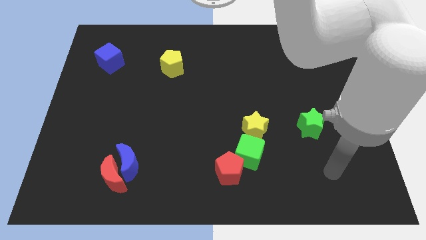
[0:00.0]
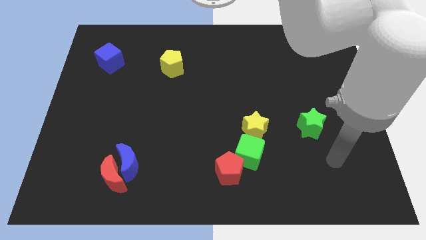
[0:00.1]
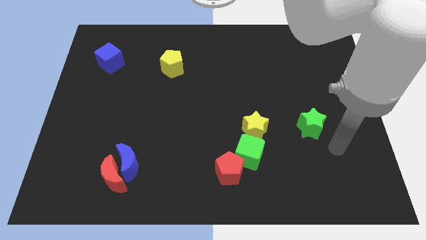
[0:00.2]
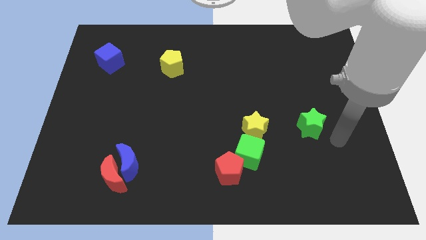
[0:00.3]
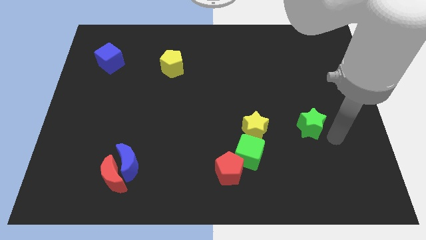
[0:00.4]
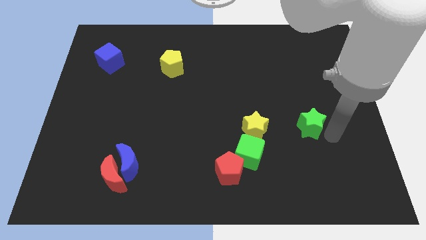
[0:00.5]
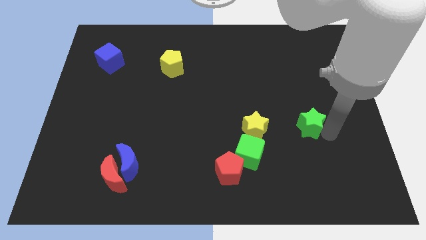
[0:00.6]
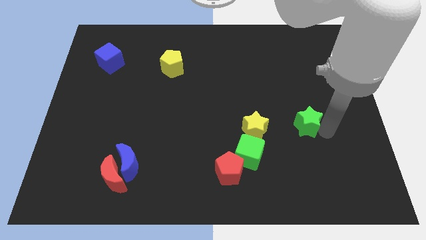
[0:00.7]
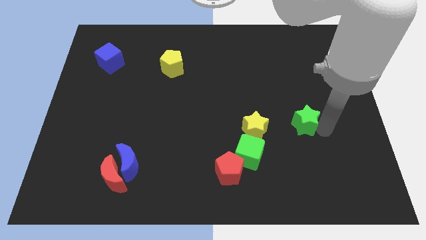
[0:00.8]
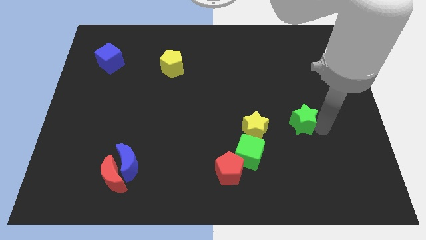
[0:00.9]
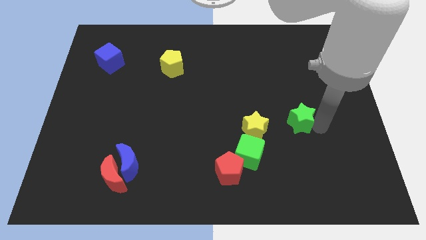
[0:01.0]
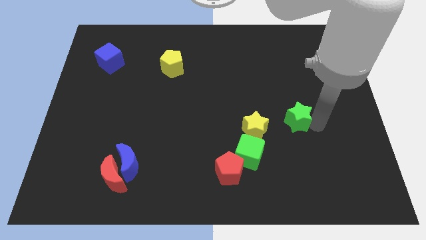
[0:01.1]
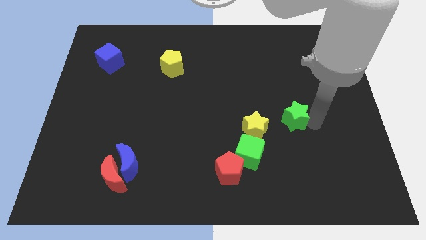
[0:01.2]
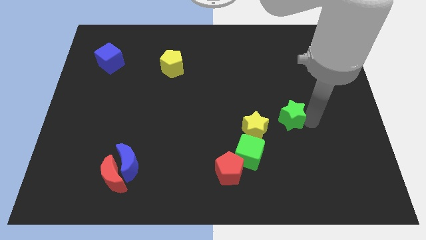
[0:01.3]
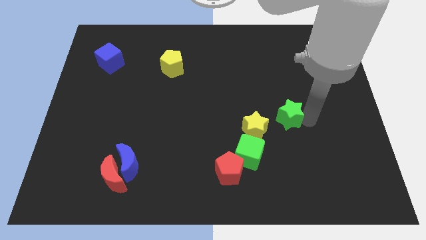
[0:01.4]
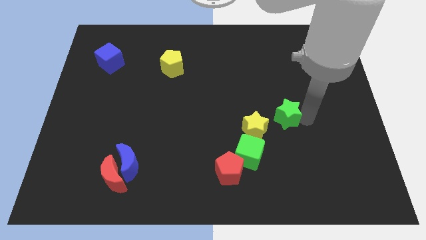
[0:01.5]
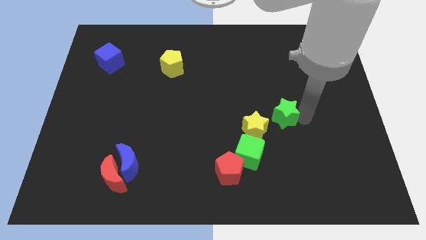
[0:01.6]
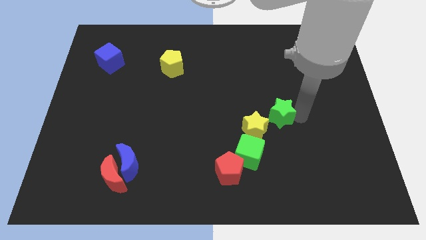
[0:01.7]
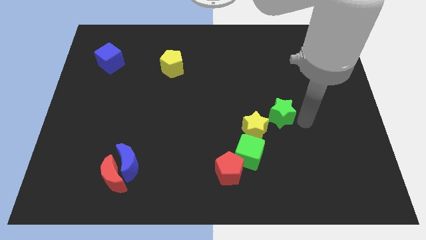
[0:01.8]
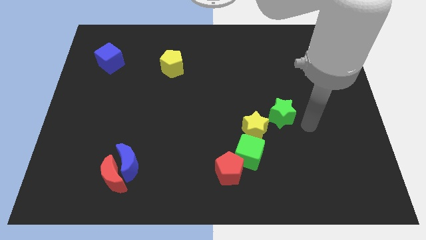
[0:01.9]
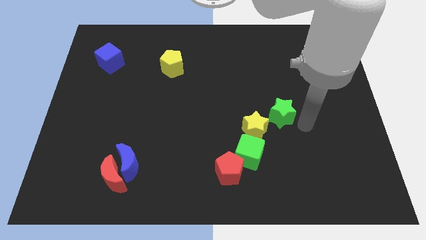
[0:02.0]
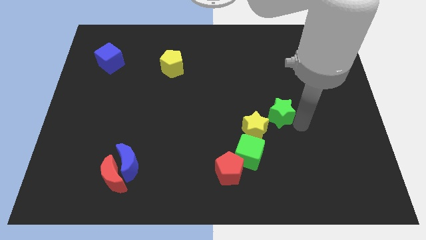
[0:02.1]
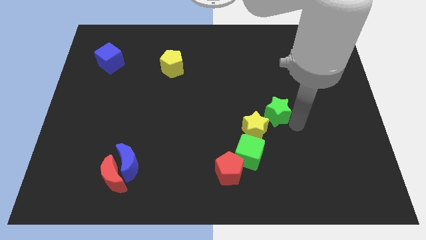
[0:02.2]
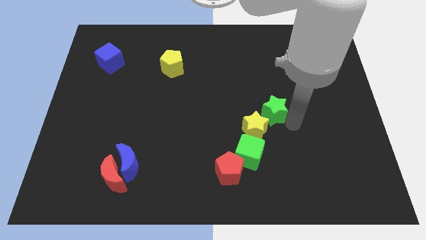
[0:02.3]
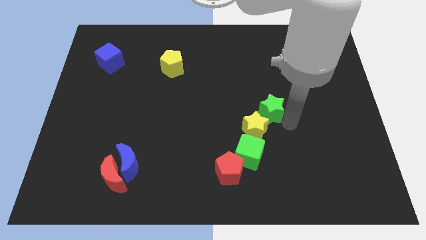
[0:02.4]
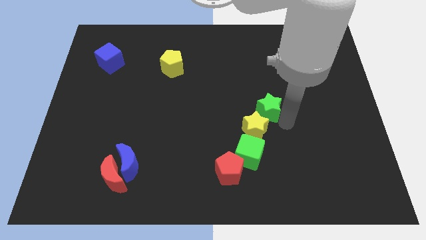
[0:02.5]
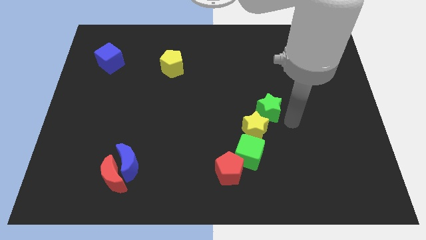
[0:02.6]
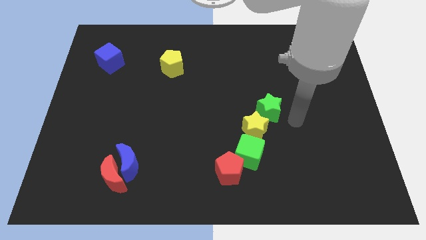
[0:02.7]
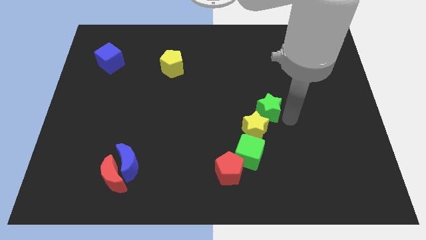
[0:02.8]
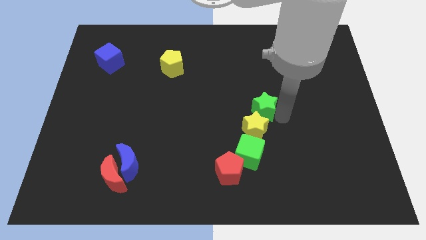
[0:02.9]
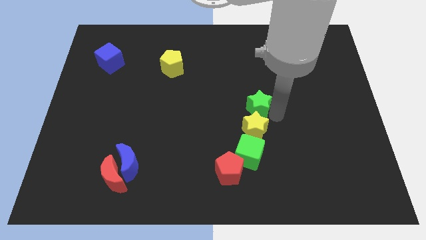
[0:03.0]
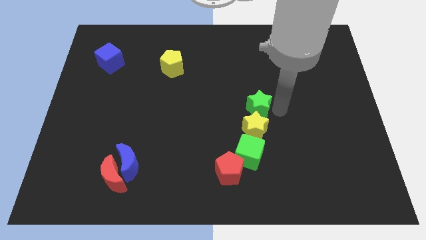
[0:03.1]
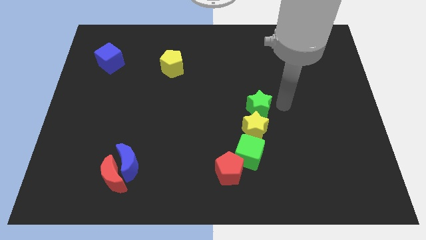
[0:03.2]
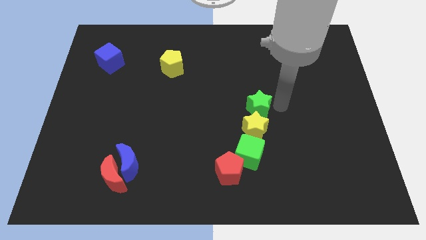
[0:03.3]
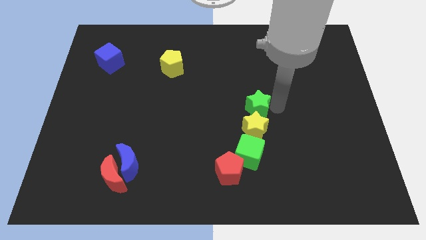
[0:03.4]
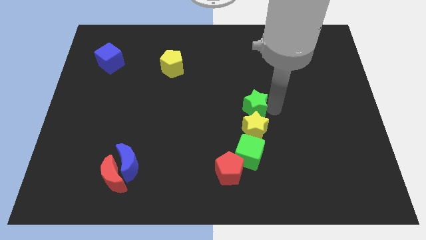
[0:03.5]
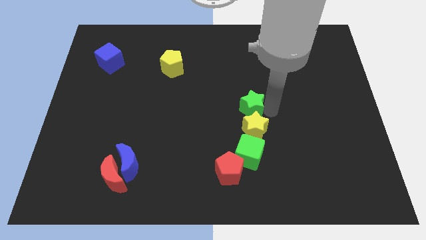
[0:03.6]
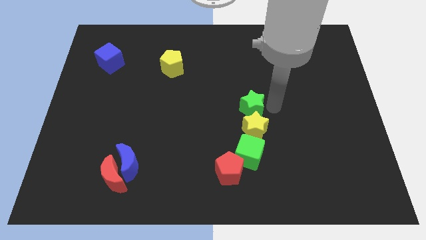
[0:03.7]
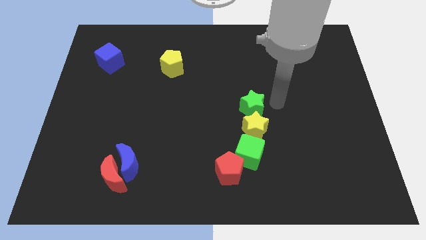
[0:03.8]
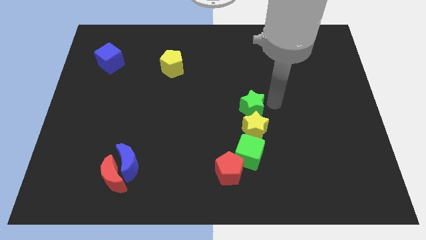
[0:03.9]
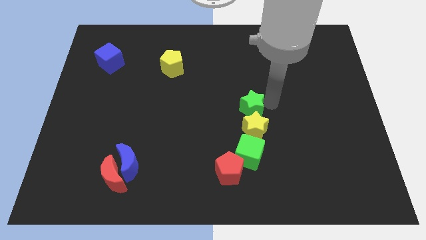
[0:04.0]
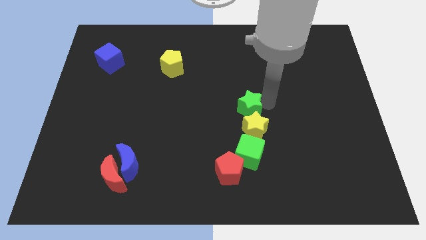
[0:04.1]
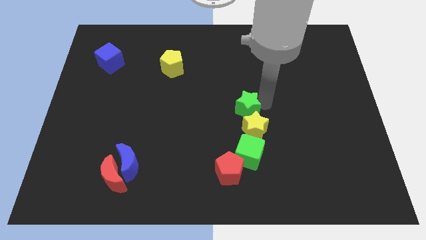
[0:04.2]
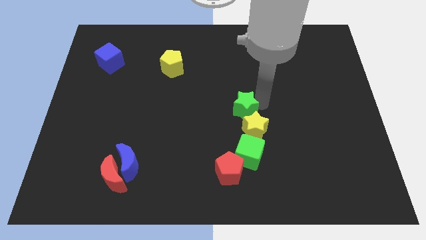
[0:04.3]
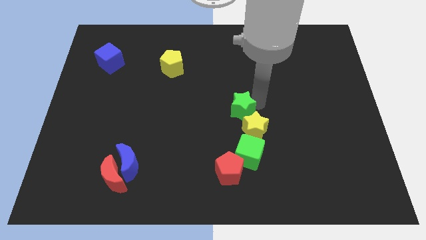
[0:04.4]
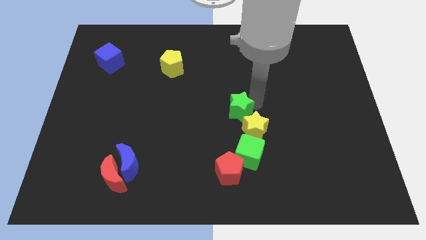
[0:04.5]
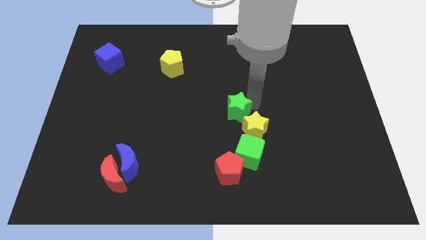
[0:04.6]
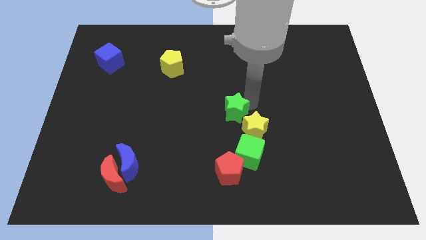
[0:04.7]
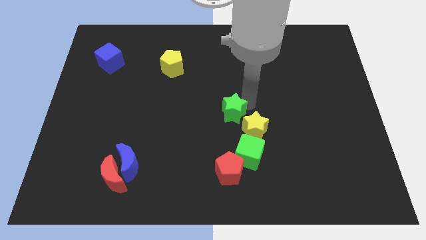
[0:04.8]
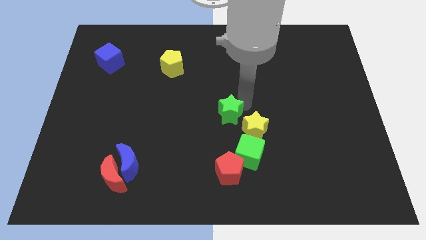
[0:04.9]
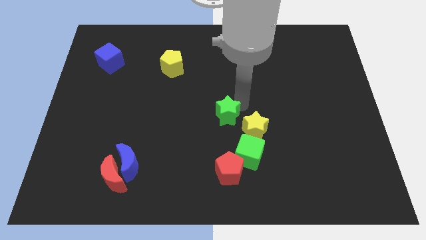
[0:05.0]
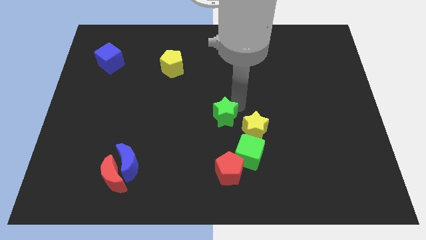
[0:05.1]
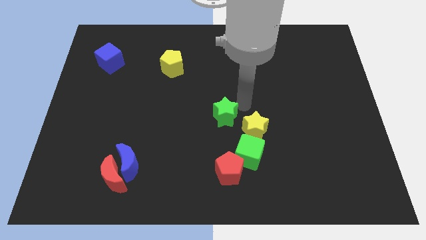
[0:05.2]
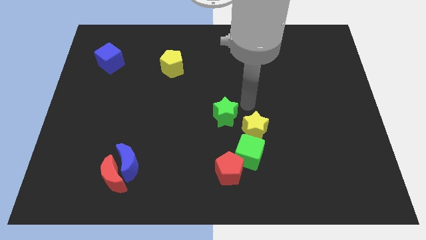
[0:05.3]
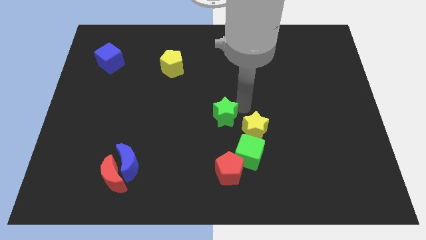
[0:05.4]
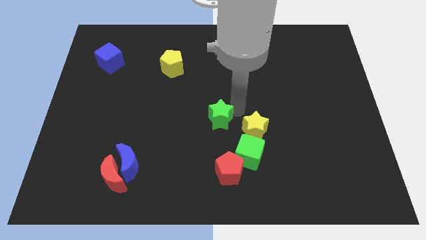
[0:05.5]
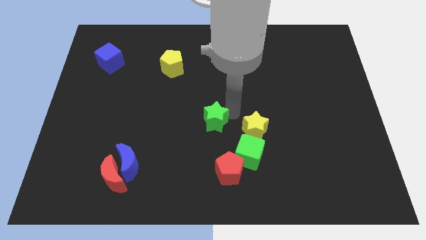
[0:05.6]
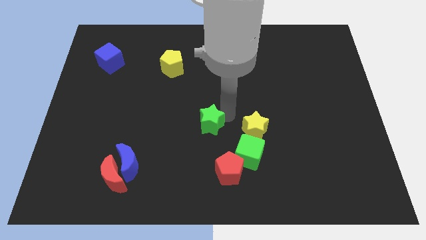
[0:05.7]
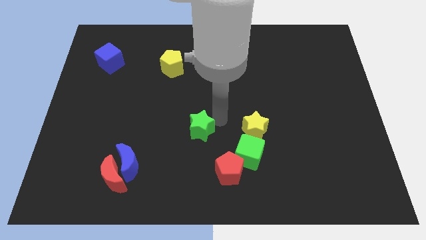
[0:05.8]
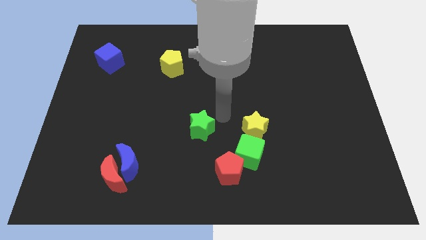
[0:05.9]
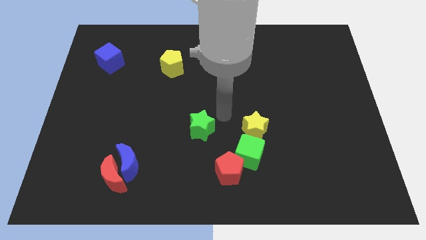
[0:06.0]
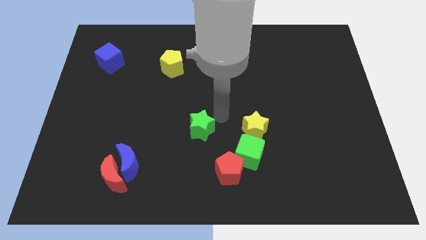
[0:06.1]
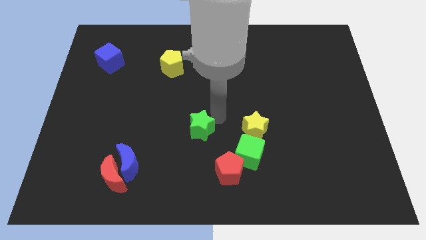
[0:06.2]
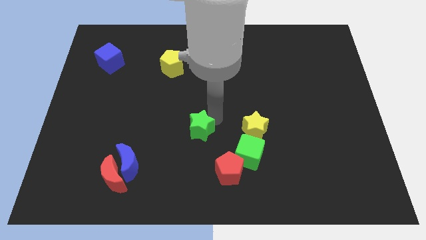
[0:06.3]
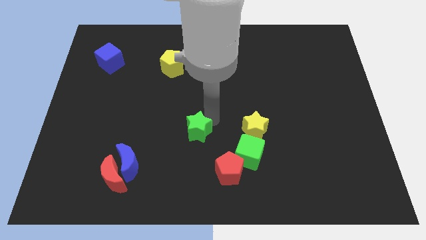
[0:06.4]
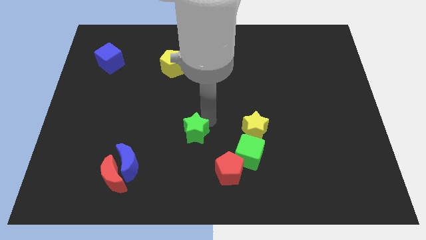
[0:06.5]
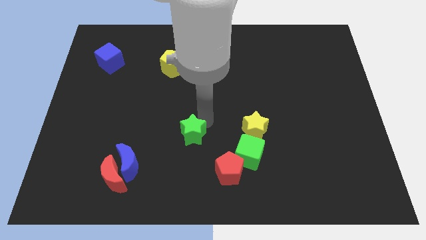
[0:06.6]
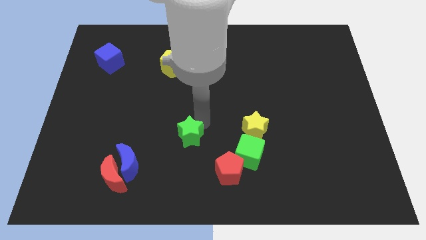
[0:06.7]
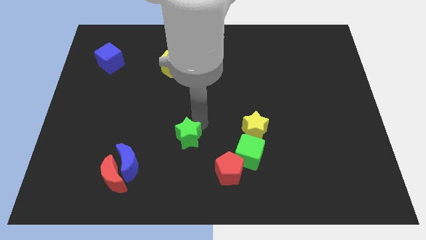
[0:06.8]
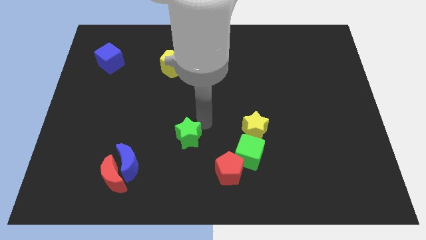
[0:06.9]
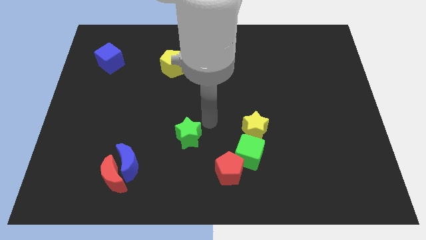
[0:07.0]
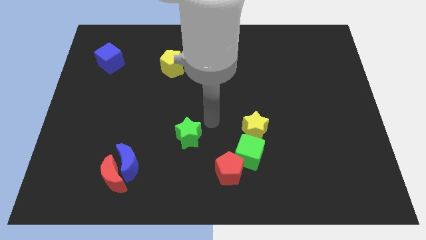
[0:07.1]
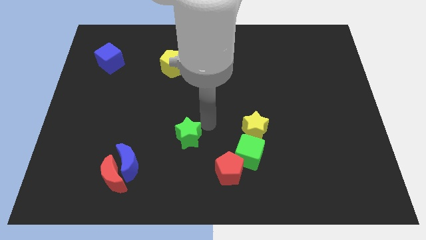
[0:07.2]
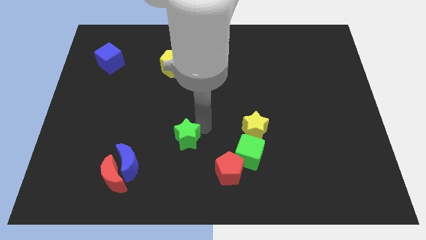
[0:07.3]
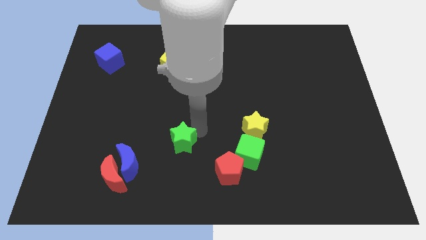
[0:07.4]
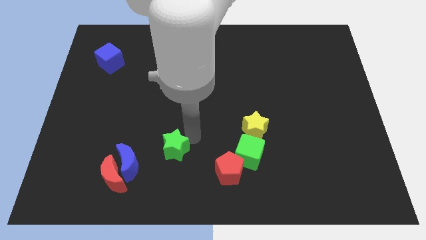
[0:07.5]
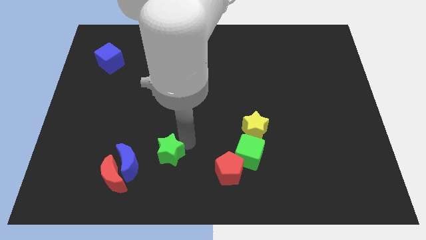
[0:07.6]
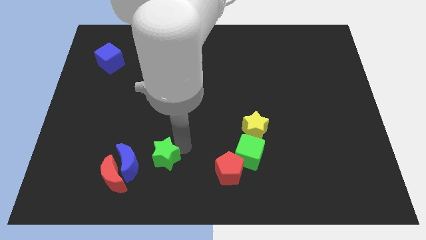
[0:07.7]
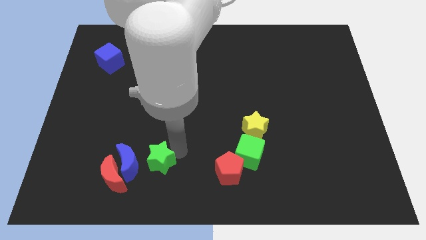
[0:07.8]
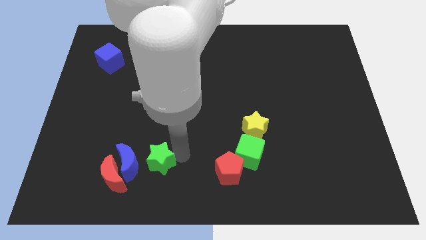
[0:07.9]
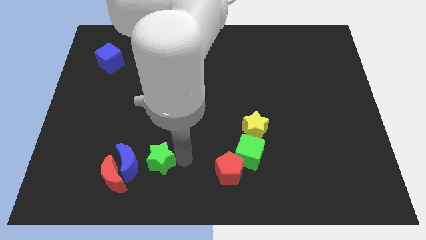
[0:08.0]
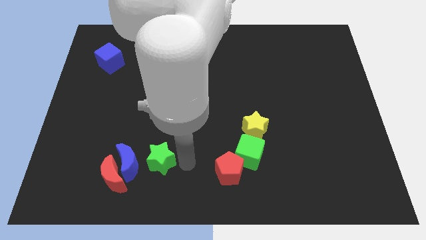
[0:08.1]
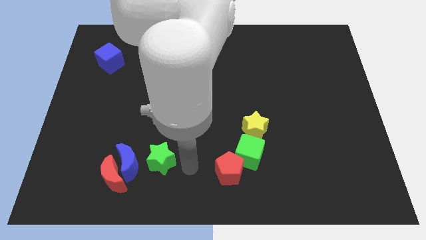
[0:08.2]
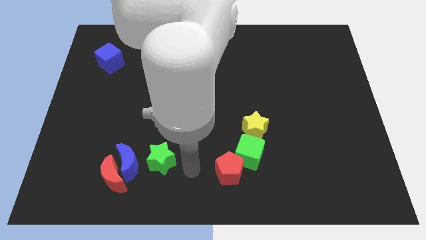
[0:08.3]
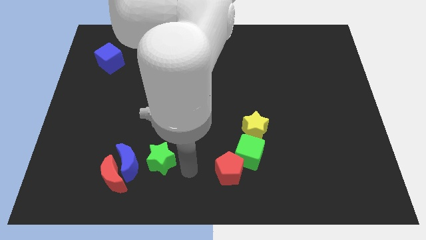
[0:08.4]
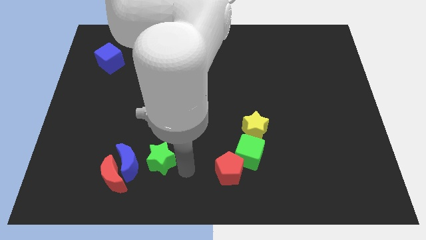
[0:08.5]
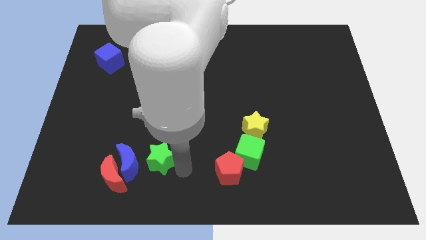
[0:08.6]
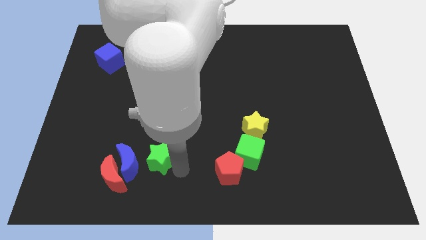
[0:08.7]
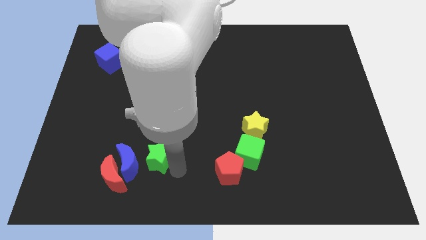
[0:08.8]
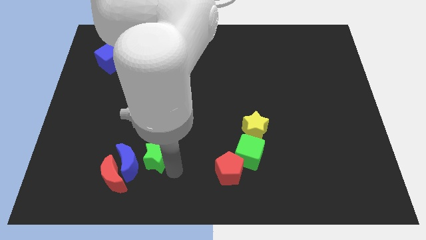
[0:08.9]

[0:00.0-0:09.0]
move the green star to the blue moon
